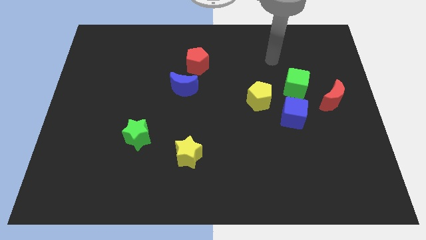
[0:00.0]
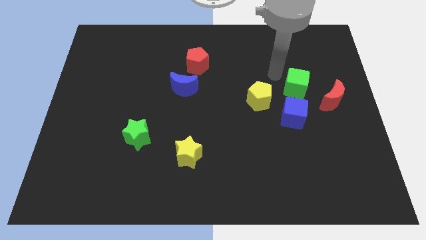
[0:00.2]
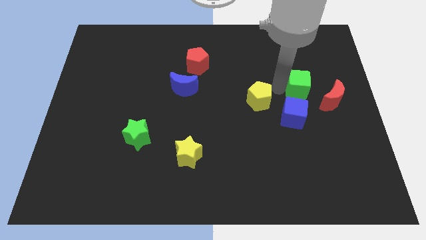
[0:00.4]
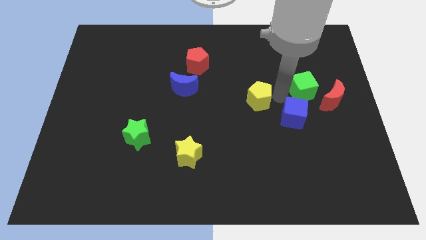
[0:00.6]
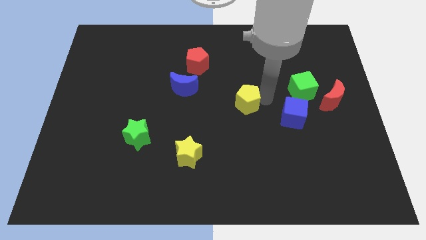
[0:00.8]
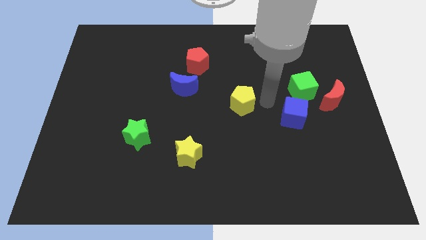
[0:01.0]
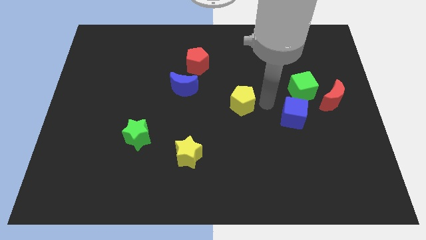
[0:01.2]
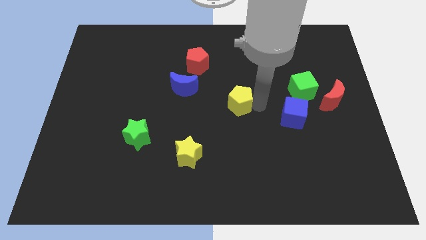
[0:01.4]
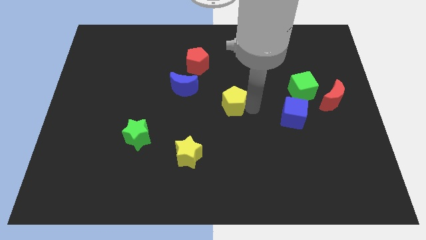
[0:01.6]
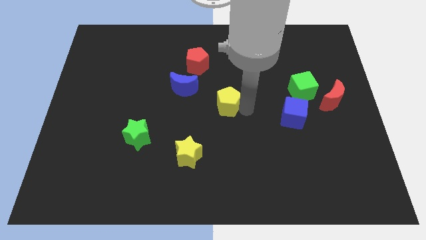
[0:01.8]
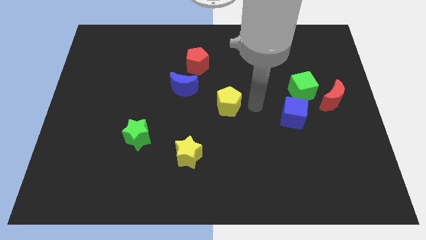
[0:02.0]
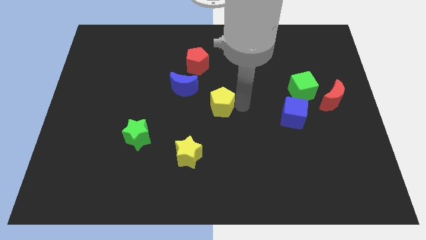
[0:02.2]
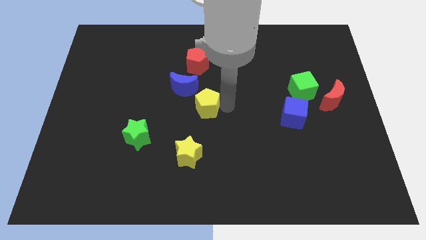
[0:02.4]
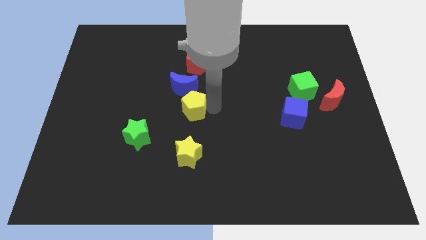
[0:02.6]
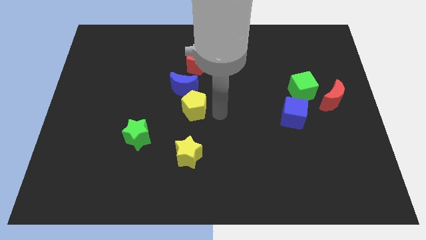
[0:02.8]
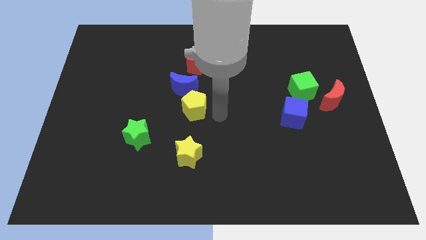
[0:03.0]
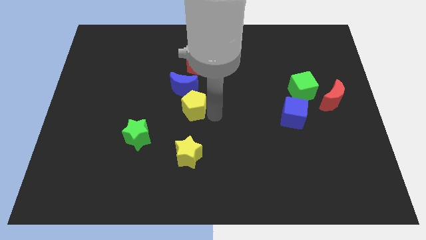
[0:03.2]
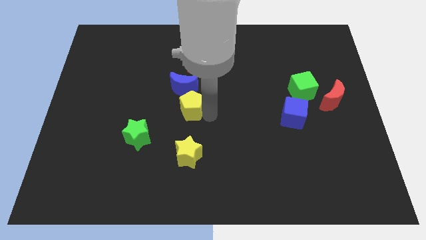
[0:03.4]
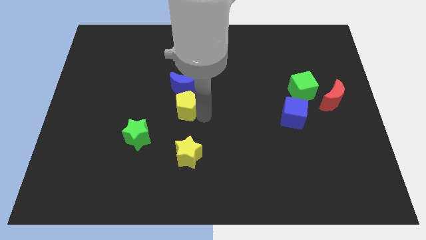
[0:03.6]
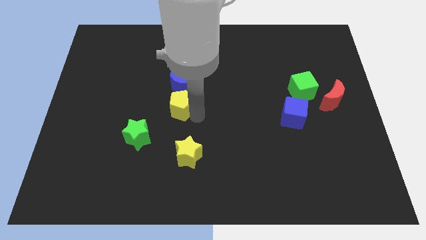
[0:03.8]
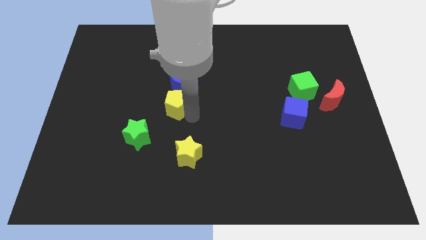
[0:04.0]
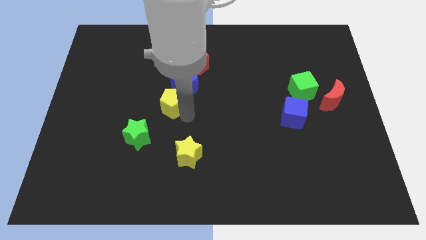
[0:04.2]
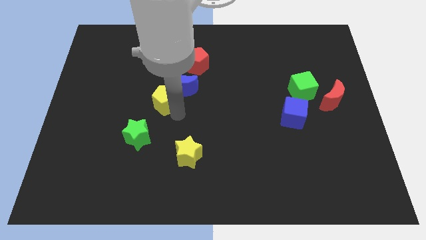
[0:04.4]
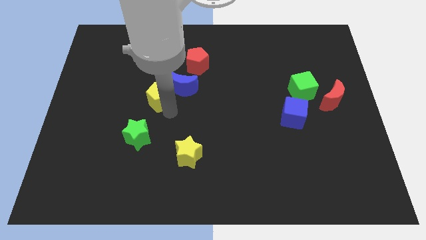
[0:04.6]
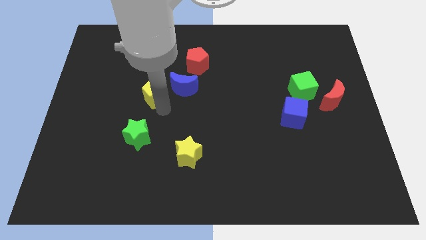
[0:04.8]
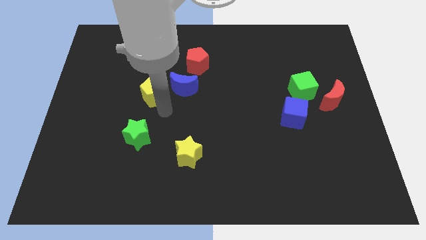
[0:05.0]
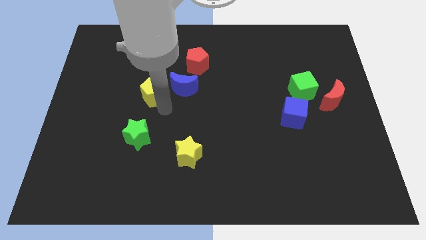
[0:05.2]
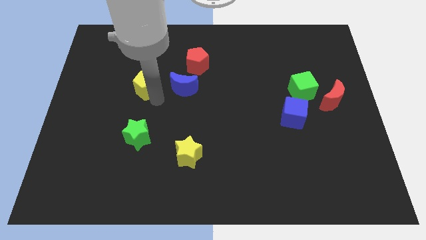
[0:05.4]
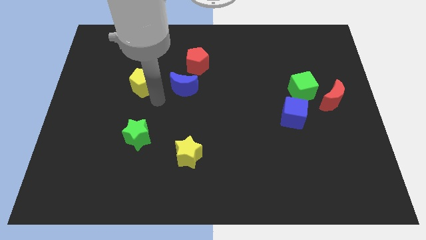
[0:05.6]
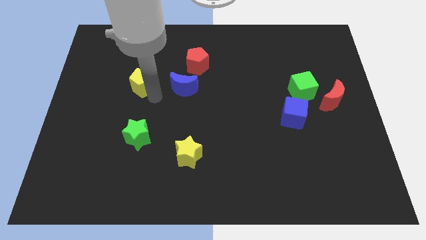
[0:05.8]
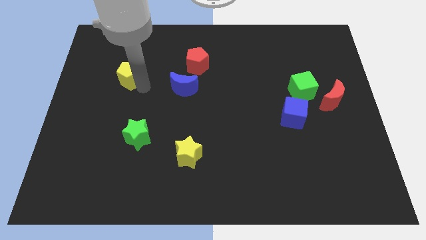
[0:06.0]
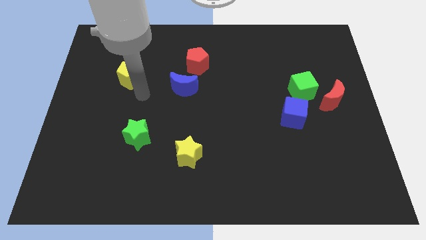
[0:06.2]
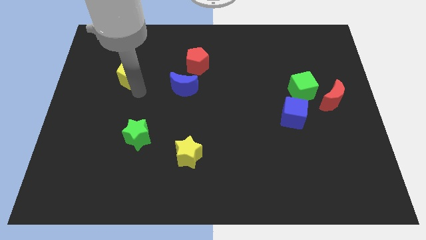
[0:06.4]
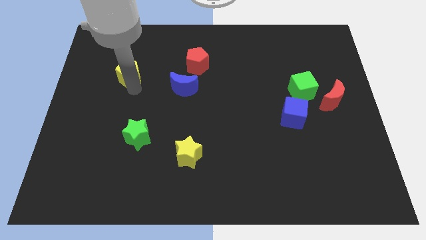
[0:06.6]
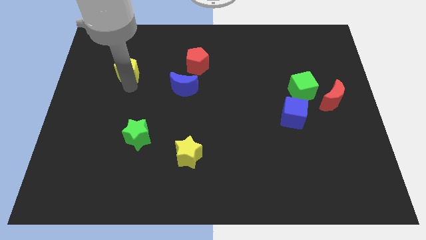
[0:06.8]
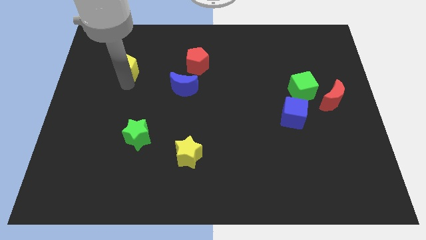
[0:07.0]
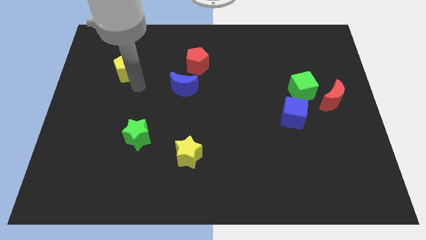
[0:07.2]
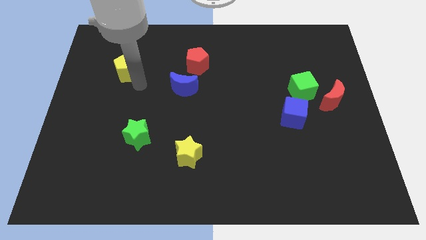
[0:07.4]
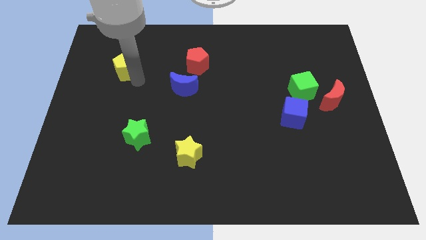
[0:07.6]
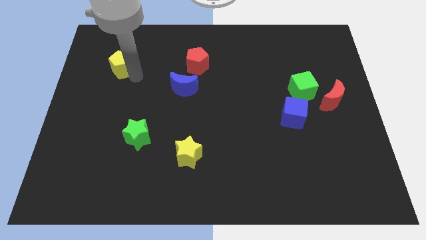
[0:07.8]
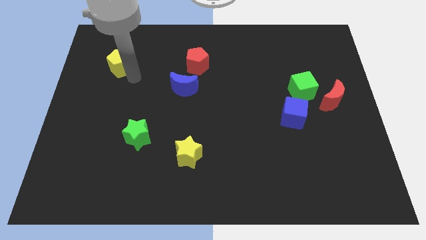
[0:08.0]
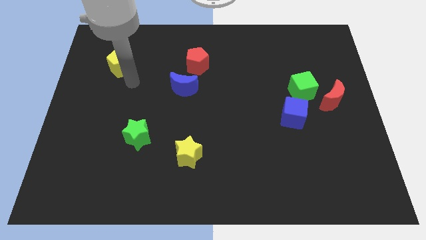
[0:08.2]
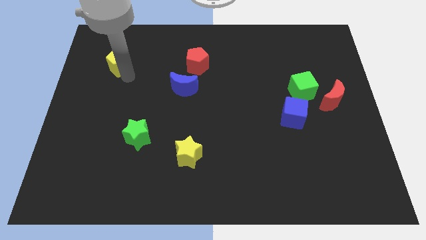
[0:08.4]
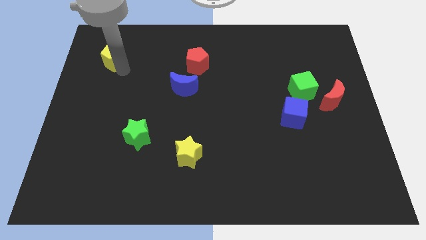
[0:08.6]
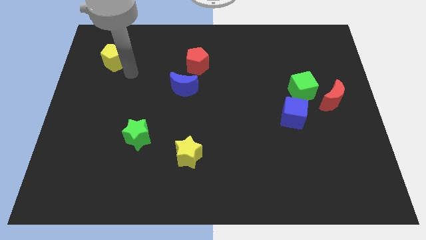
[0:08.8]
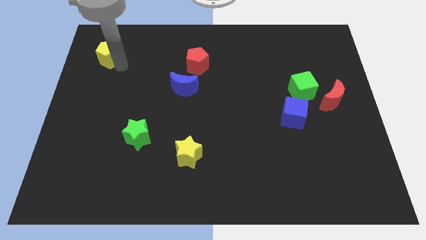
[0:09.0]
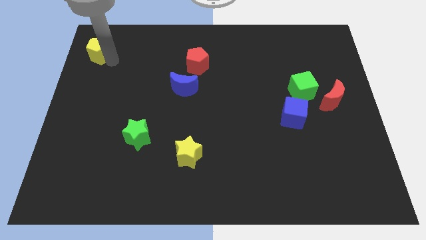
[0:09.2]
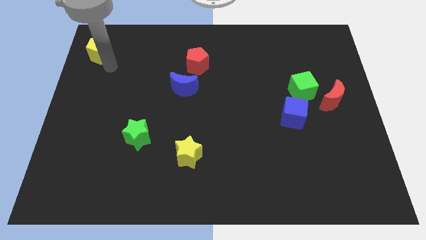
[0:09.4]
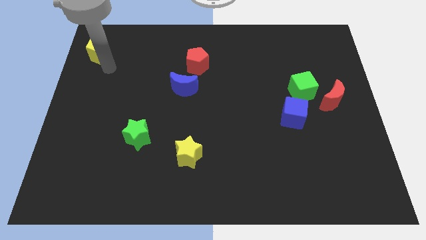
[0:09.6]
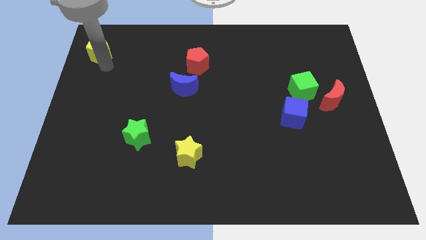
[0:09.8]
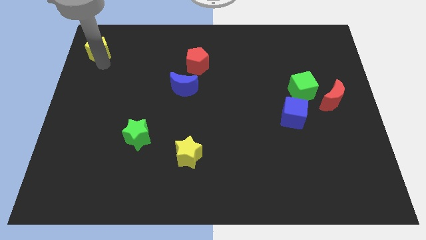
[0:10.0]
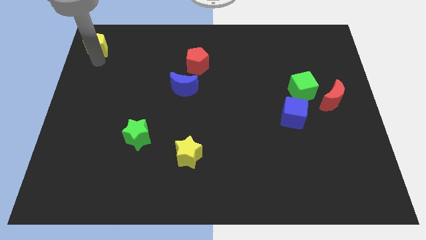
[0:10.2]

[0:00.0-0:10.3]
move the yellow pentagon to the upper left corner

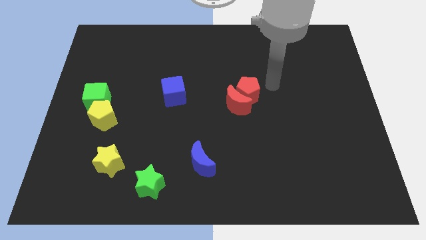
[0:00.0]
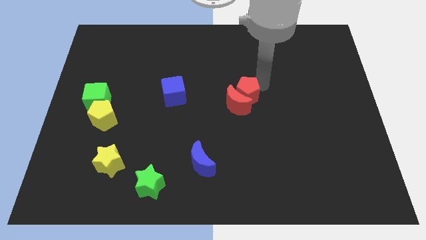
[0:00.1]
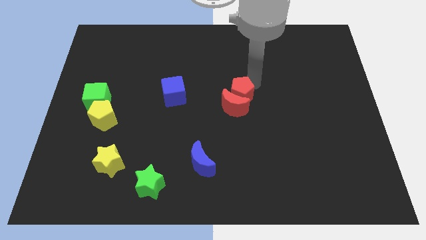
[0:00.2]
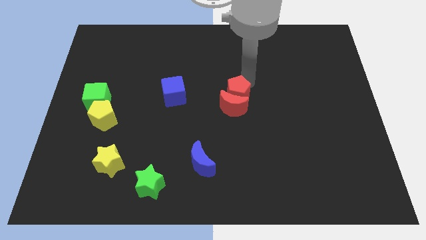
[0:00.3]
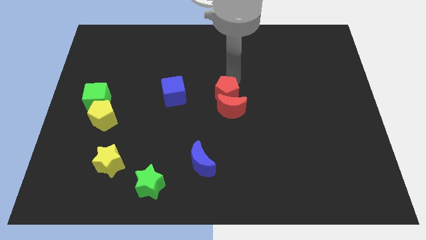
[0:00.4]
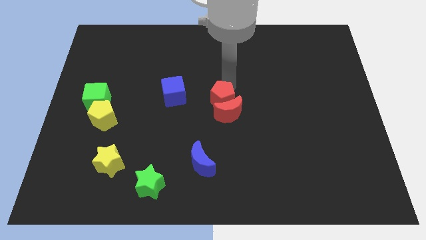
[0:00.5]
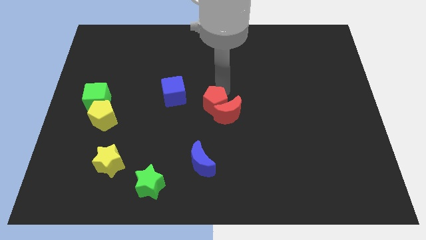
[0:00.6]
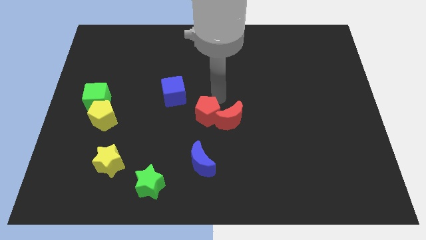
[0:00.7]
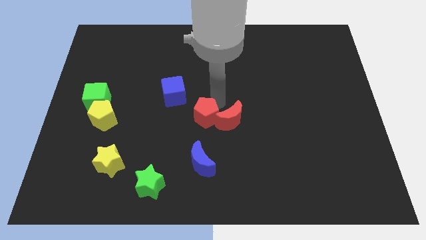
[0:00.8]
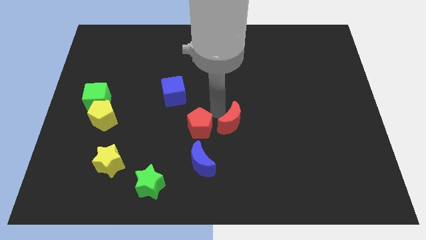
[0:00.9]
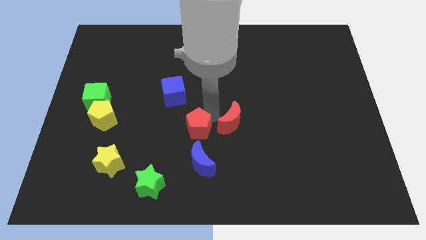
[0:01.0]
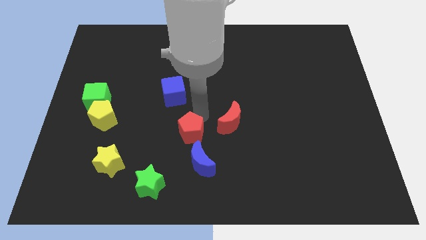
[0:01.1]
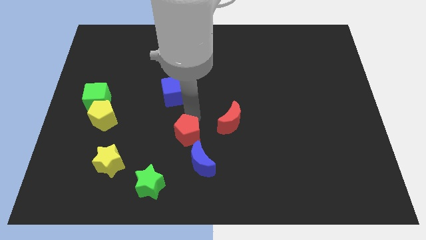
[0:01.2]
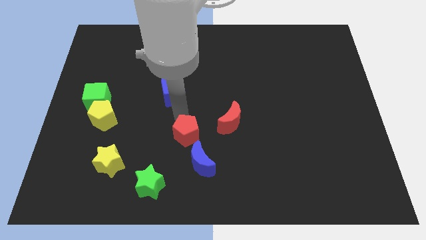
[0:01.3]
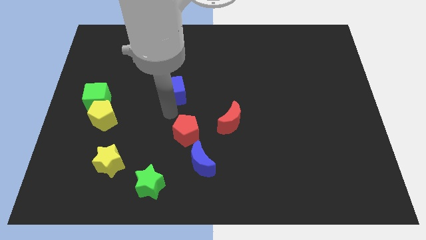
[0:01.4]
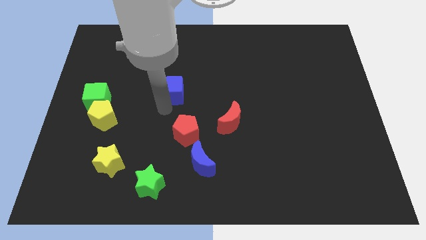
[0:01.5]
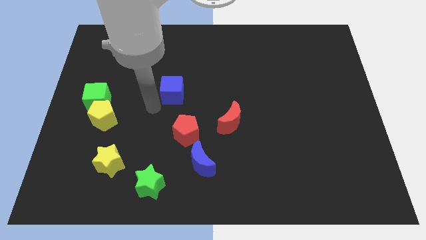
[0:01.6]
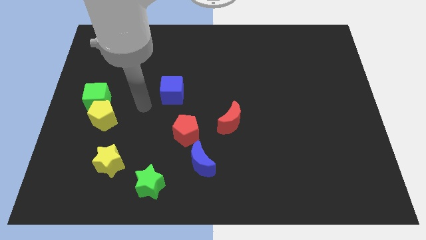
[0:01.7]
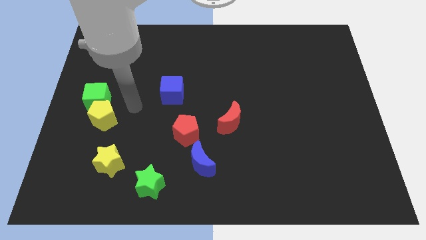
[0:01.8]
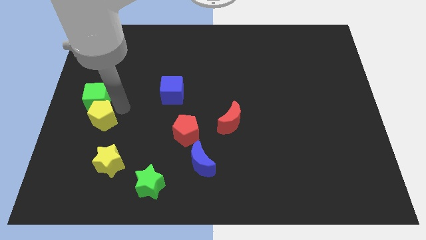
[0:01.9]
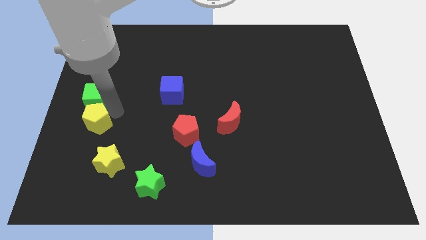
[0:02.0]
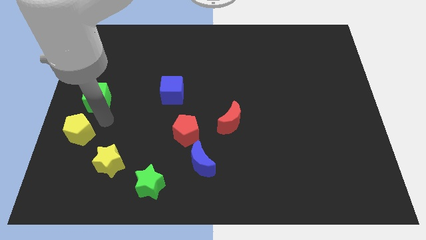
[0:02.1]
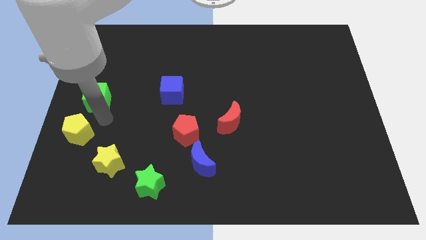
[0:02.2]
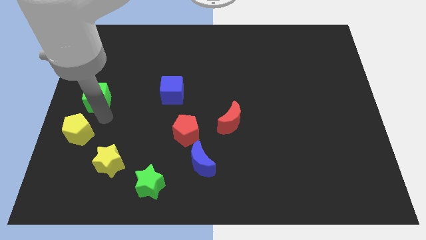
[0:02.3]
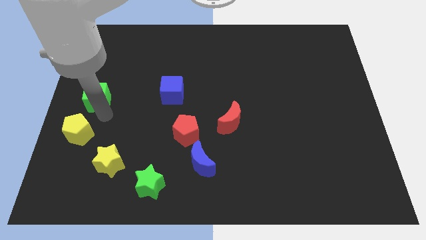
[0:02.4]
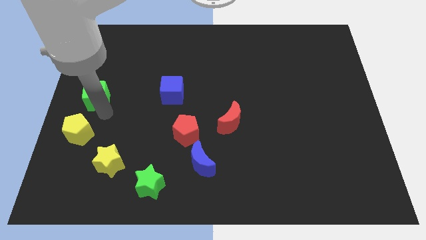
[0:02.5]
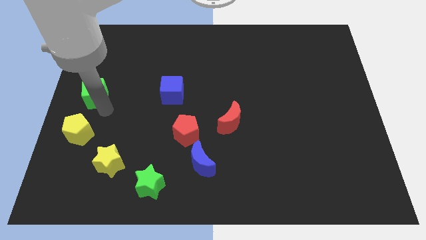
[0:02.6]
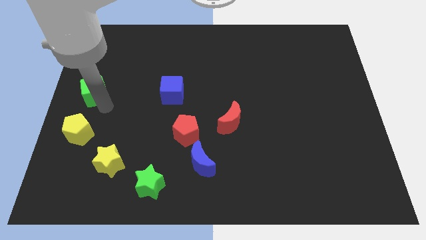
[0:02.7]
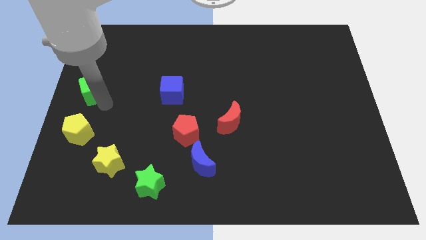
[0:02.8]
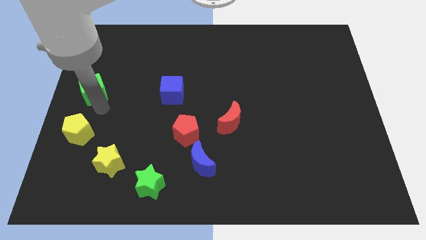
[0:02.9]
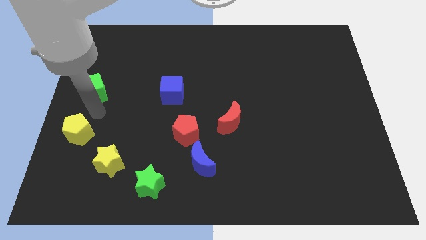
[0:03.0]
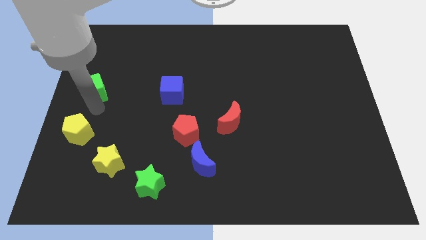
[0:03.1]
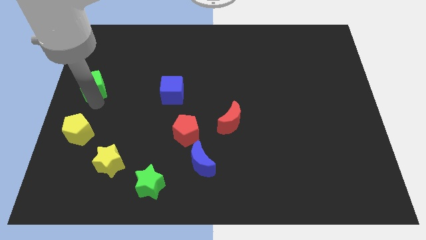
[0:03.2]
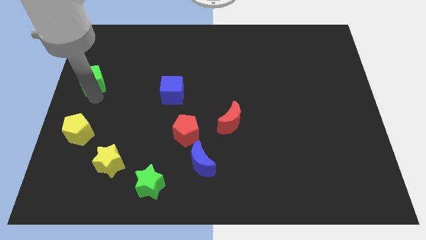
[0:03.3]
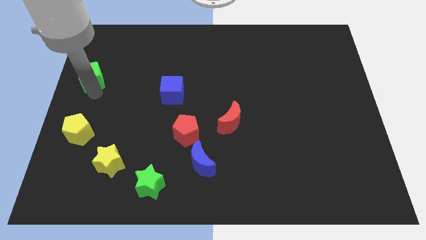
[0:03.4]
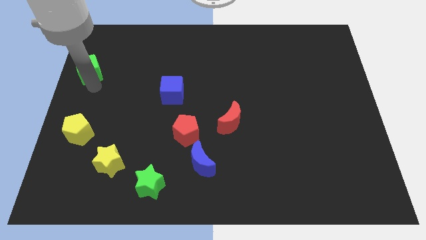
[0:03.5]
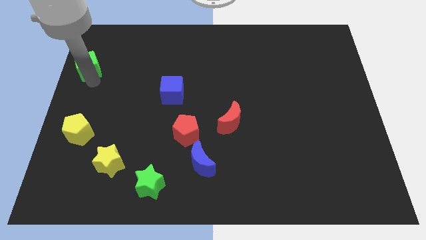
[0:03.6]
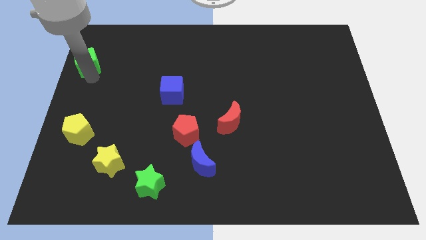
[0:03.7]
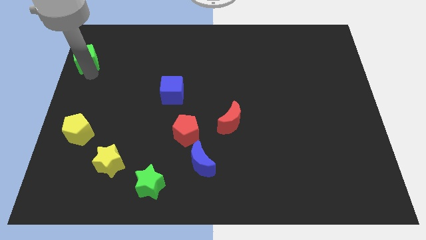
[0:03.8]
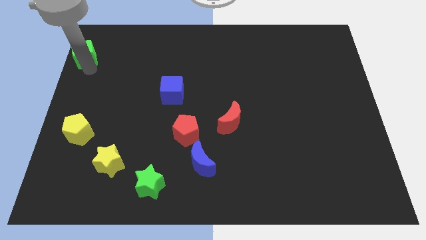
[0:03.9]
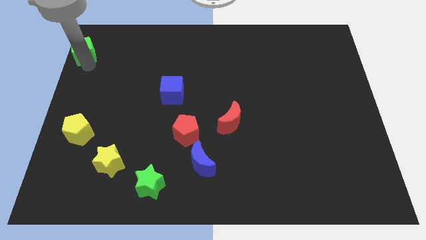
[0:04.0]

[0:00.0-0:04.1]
push the green cube to the top left of the board
